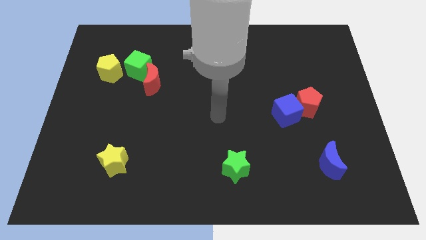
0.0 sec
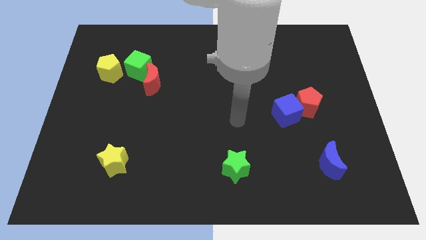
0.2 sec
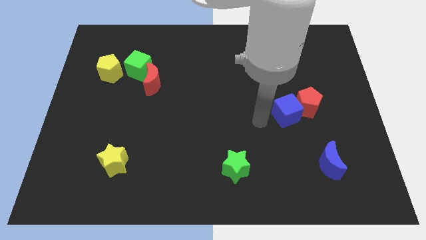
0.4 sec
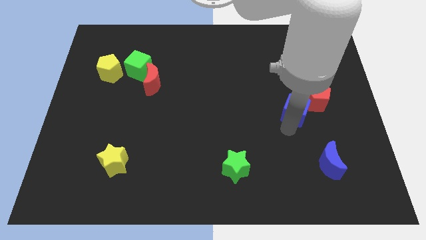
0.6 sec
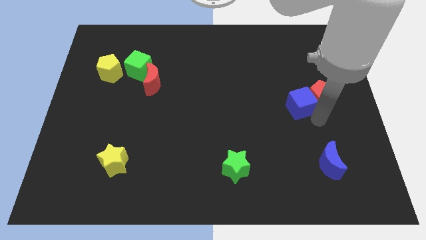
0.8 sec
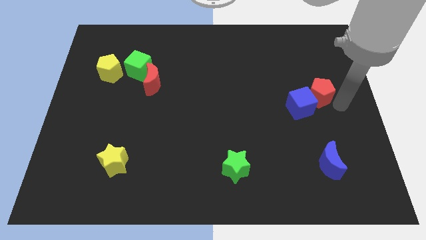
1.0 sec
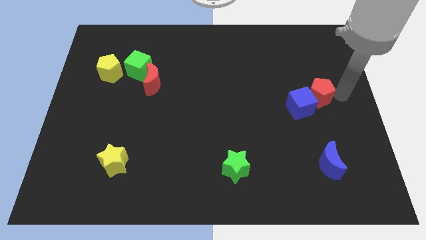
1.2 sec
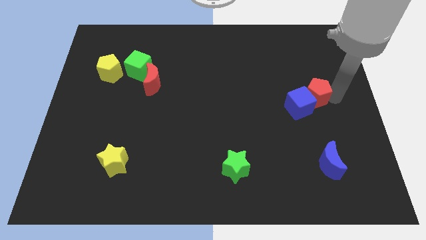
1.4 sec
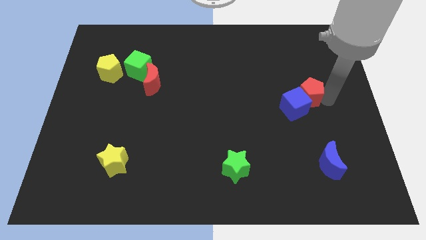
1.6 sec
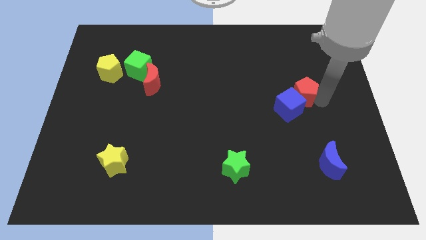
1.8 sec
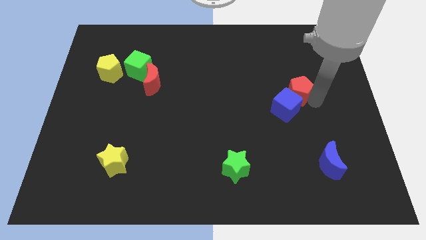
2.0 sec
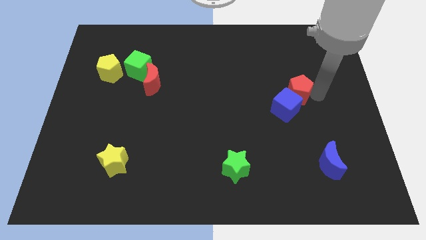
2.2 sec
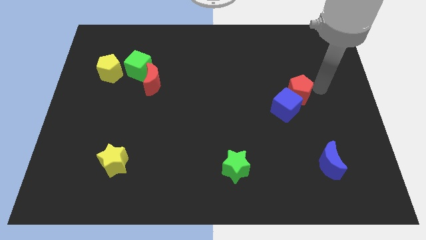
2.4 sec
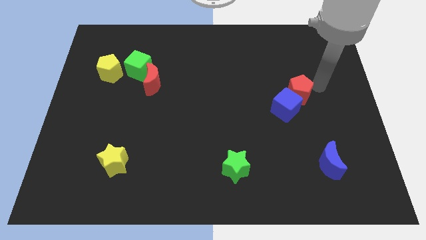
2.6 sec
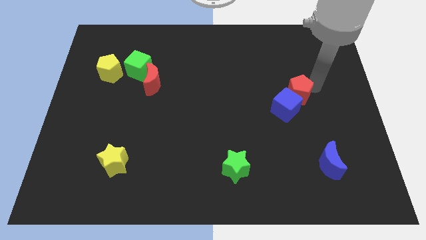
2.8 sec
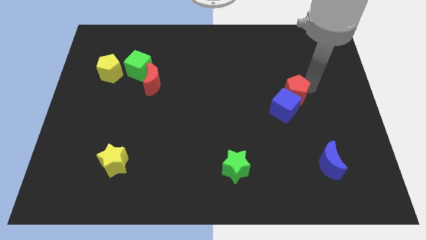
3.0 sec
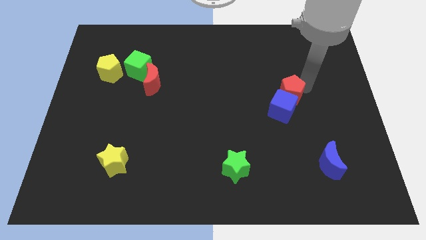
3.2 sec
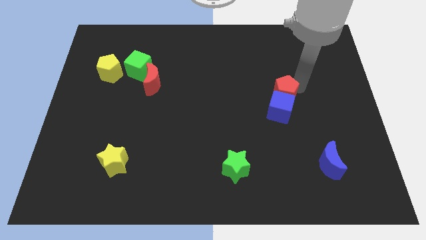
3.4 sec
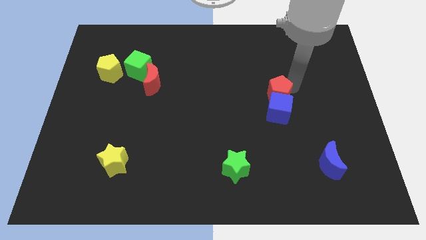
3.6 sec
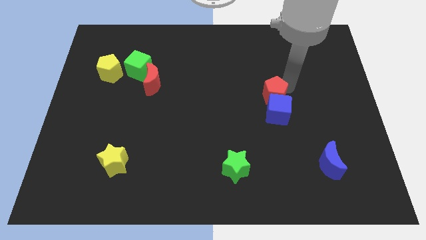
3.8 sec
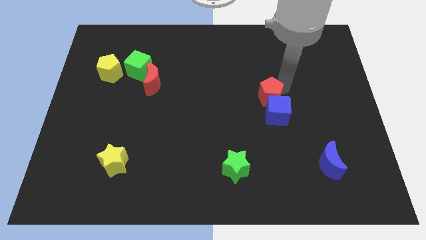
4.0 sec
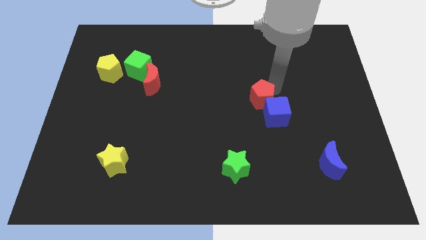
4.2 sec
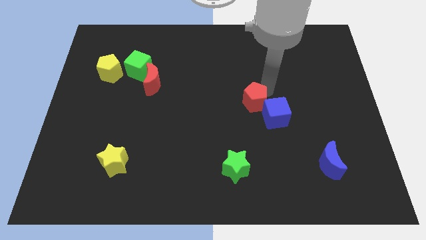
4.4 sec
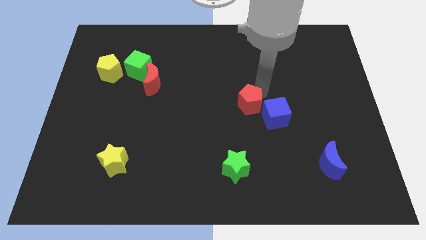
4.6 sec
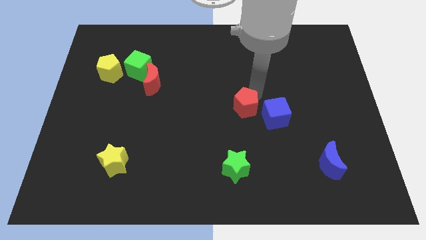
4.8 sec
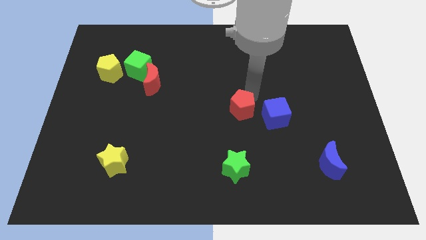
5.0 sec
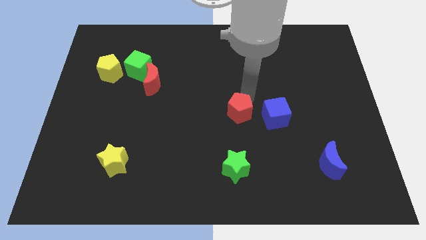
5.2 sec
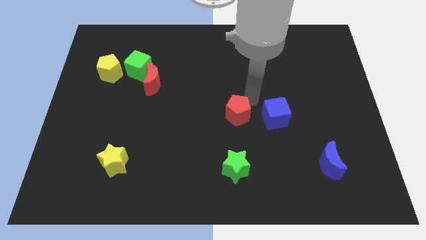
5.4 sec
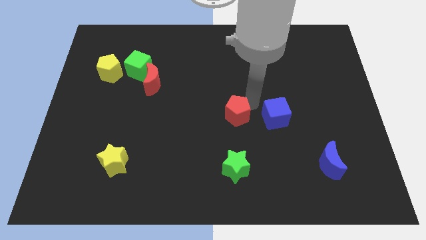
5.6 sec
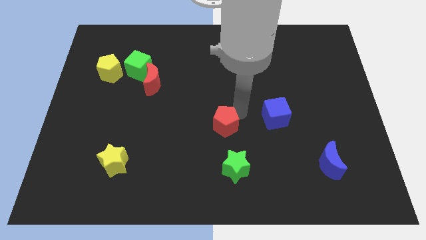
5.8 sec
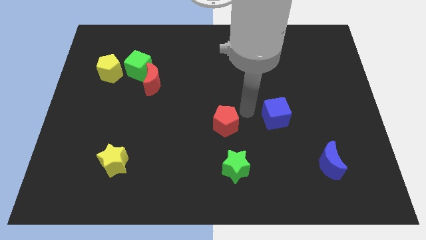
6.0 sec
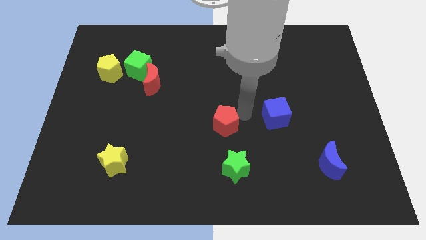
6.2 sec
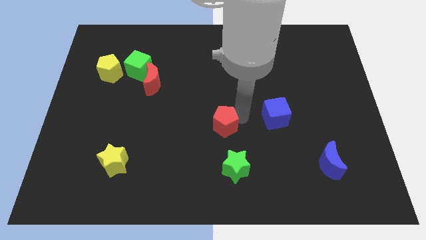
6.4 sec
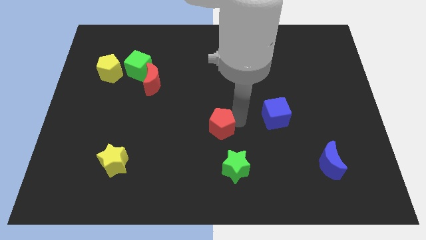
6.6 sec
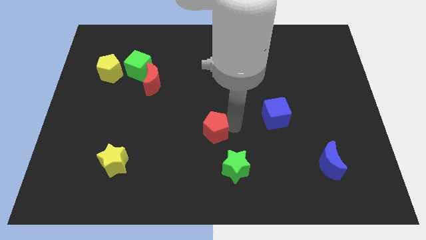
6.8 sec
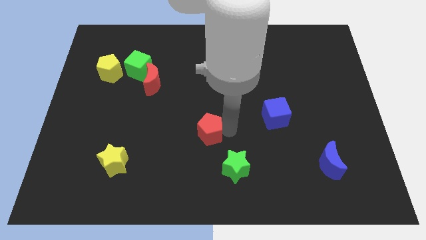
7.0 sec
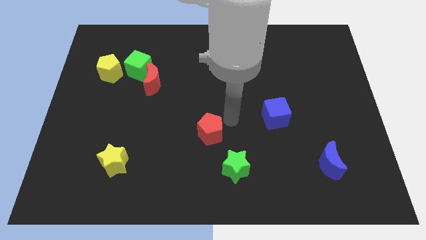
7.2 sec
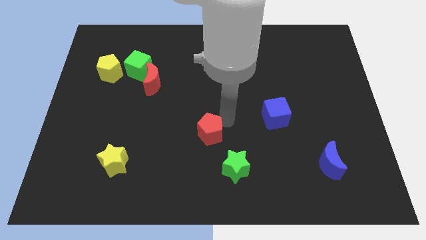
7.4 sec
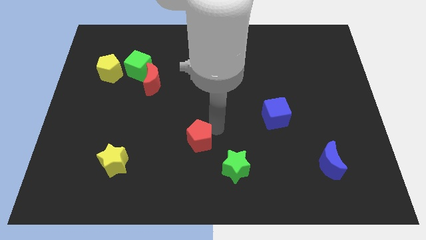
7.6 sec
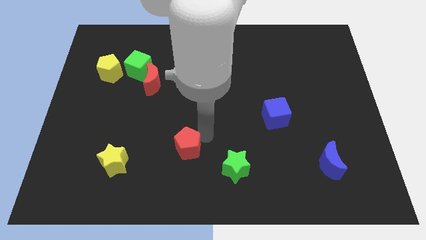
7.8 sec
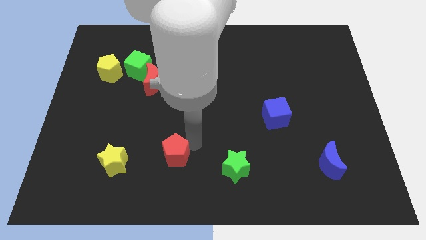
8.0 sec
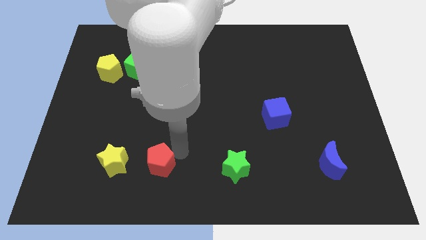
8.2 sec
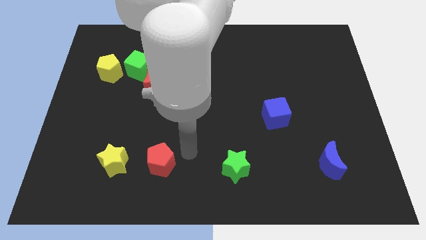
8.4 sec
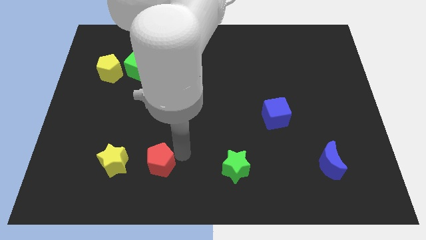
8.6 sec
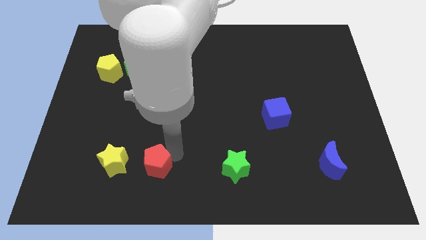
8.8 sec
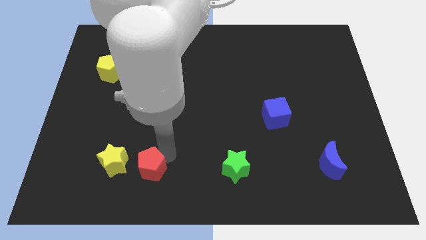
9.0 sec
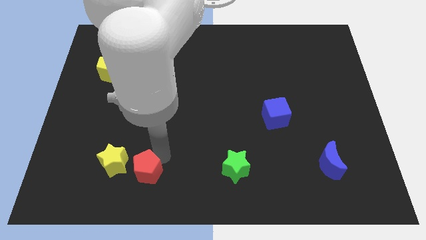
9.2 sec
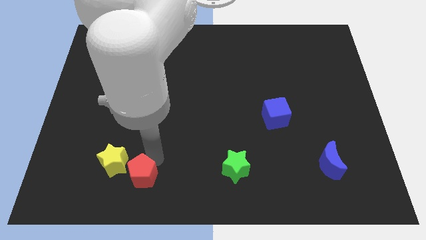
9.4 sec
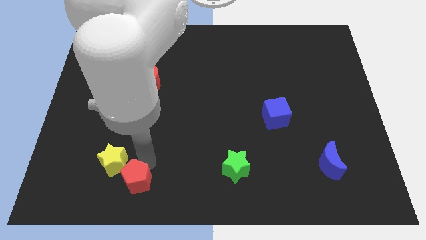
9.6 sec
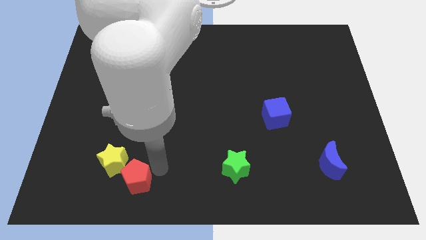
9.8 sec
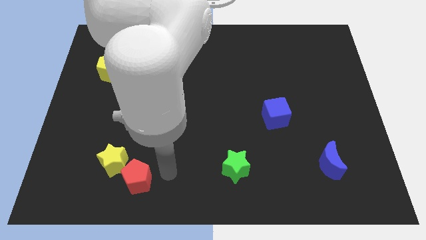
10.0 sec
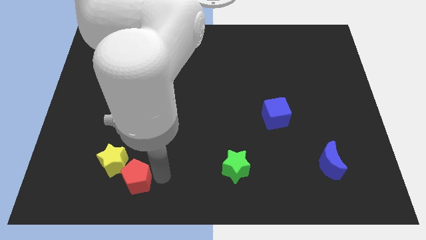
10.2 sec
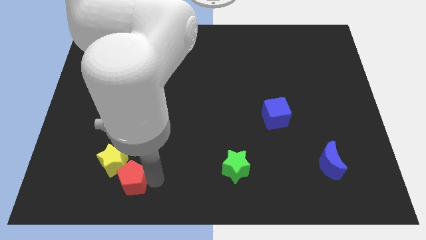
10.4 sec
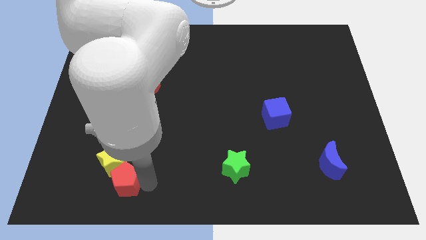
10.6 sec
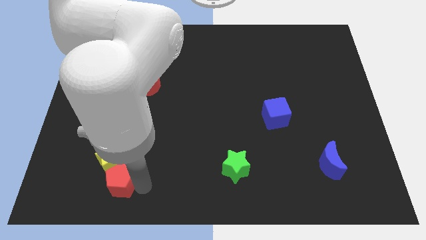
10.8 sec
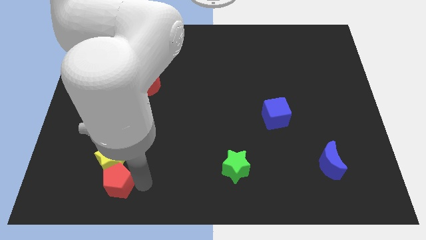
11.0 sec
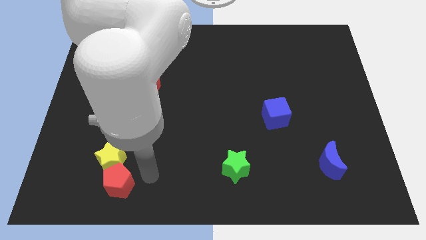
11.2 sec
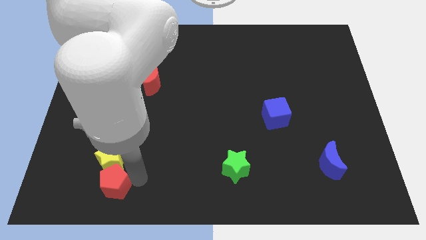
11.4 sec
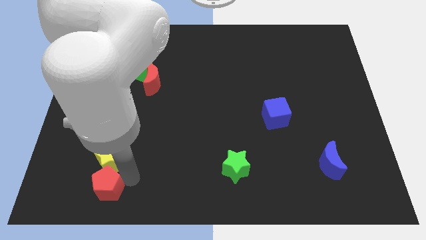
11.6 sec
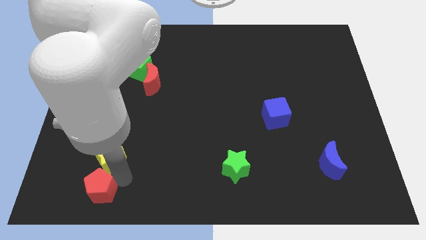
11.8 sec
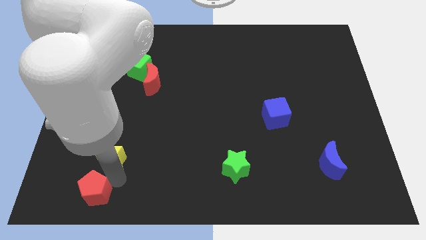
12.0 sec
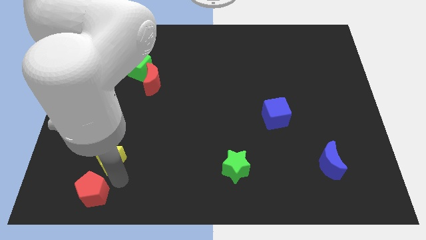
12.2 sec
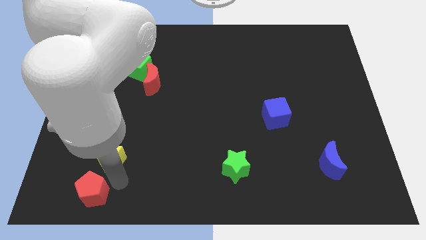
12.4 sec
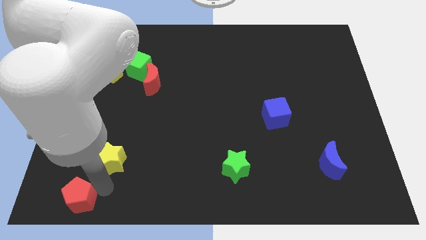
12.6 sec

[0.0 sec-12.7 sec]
slide the red pentagon to the bottom left
